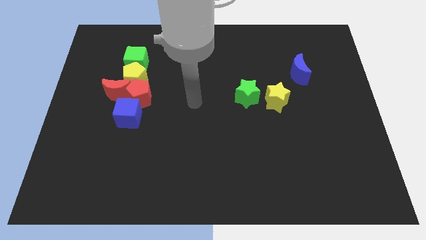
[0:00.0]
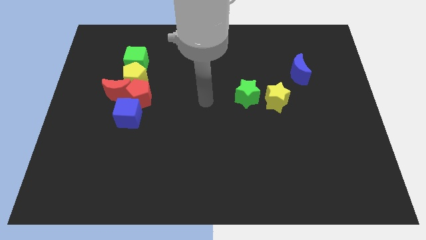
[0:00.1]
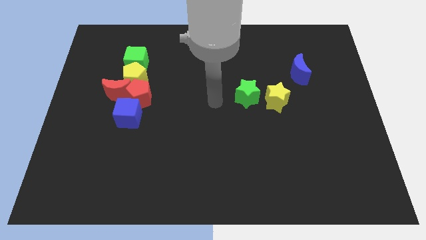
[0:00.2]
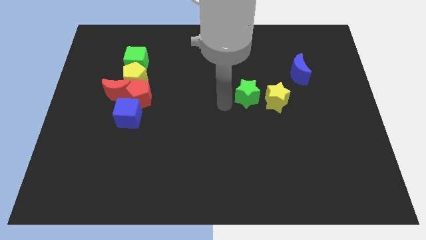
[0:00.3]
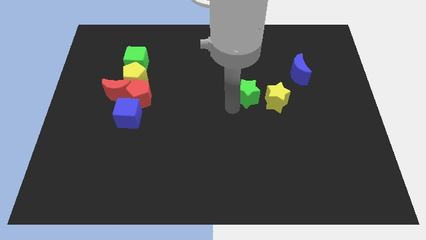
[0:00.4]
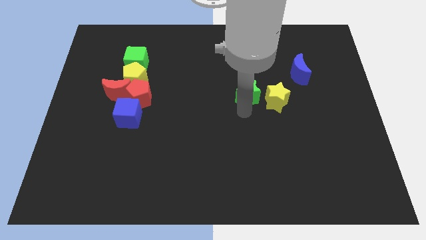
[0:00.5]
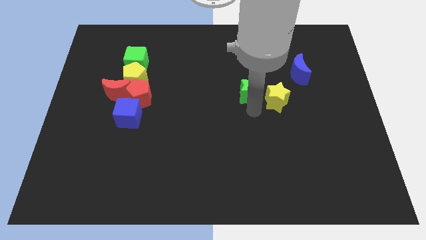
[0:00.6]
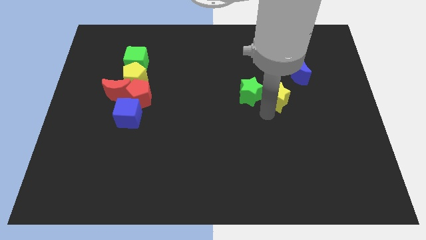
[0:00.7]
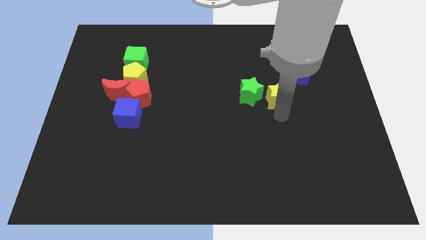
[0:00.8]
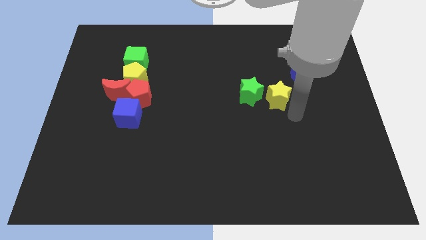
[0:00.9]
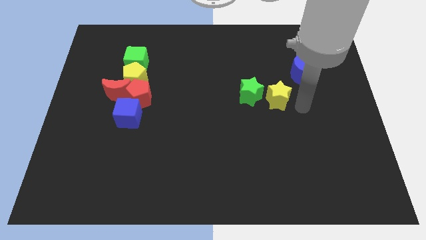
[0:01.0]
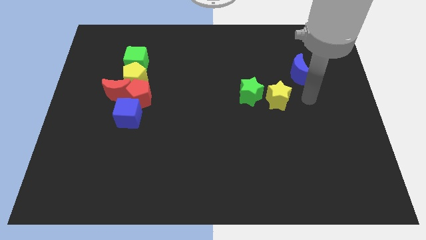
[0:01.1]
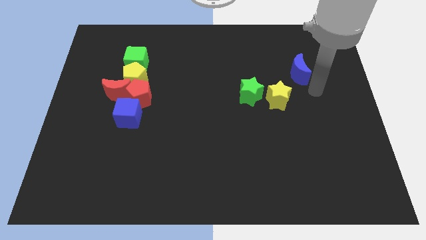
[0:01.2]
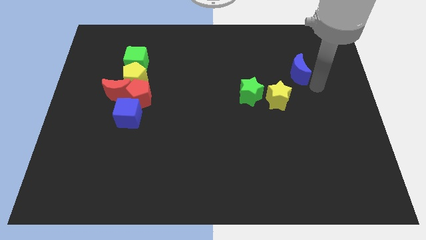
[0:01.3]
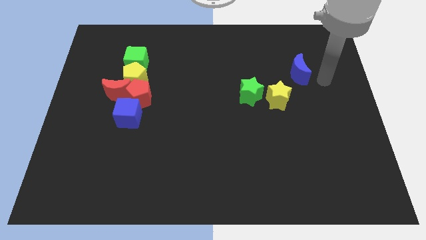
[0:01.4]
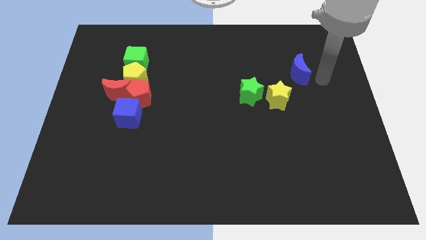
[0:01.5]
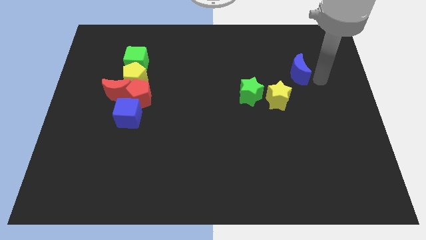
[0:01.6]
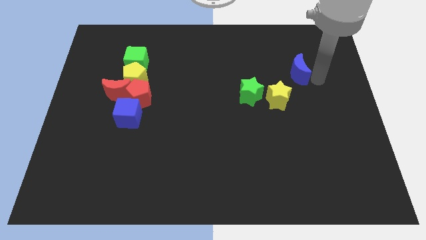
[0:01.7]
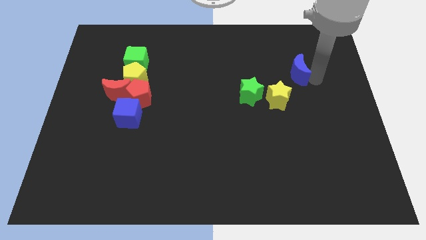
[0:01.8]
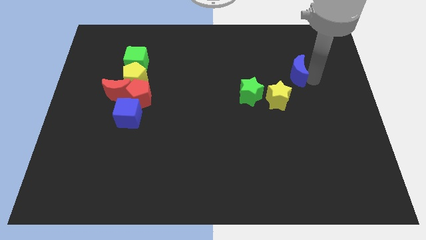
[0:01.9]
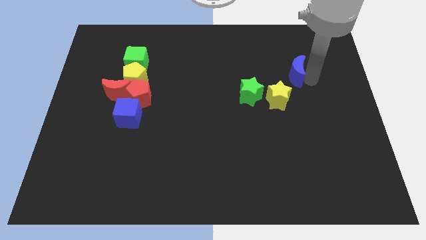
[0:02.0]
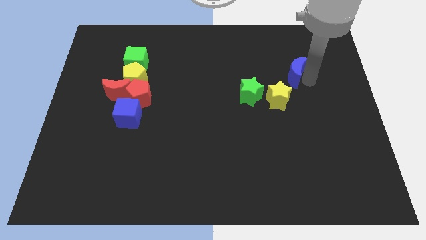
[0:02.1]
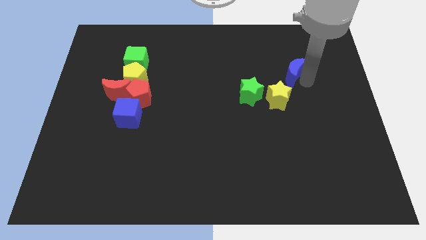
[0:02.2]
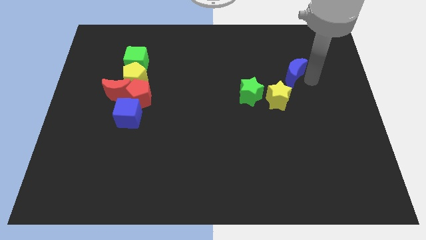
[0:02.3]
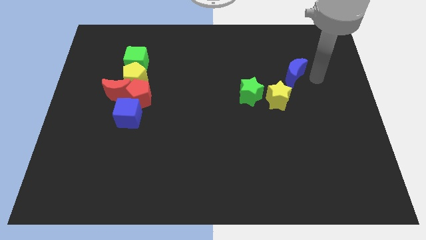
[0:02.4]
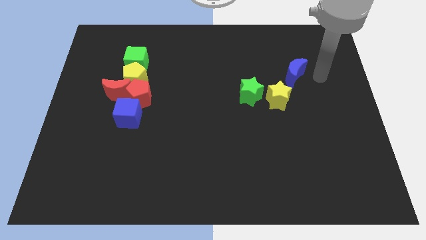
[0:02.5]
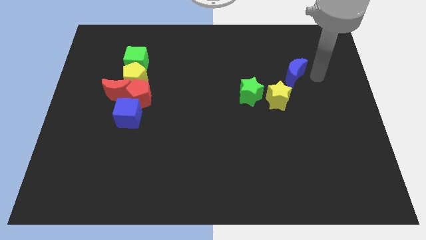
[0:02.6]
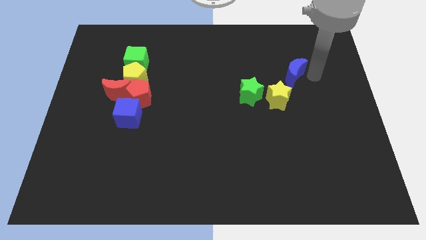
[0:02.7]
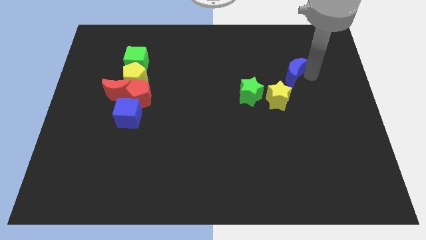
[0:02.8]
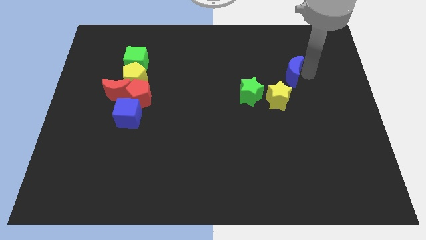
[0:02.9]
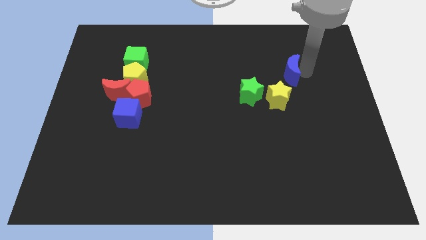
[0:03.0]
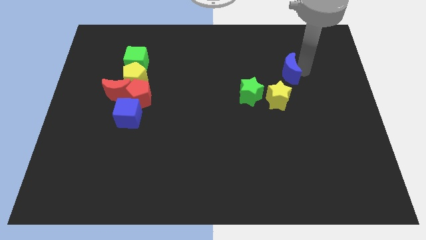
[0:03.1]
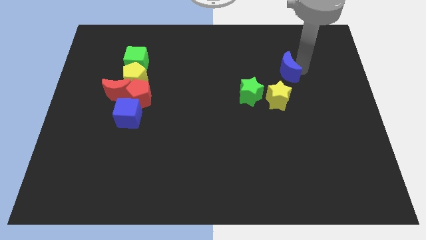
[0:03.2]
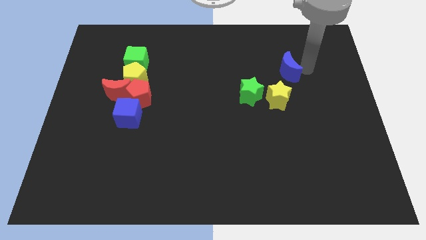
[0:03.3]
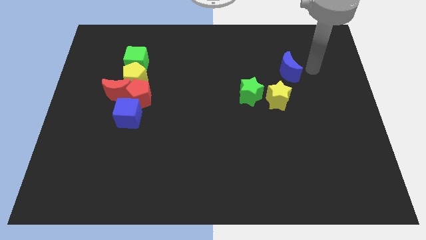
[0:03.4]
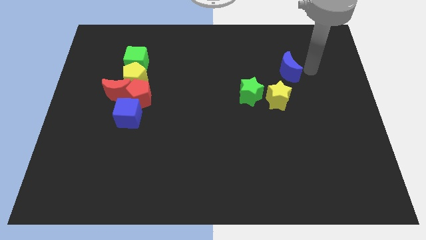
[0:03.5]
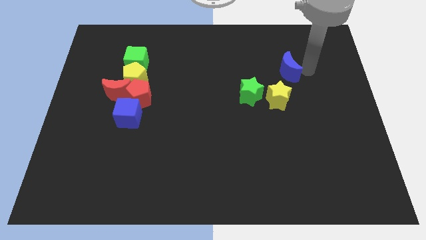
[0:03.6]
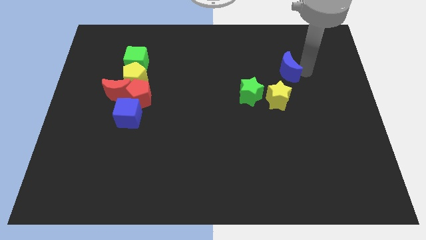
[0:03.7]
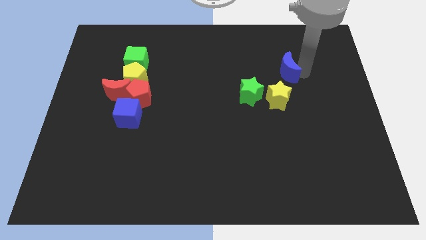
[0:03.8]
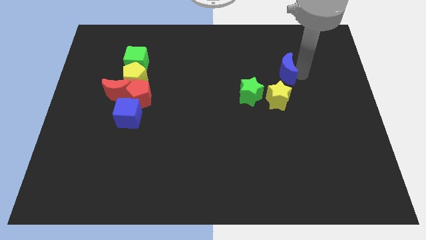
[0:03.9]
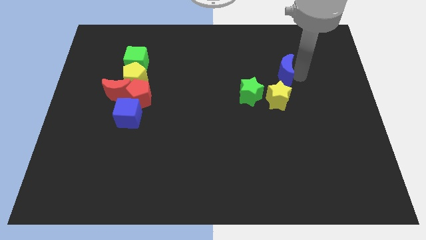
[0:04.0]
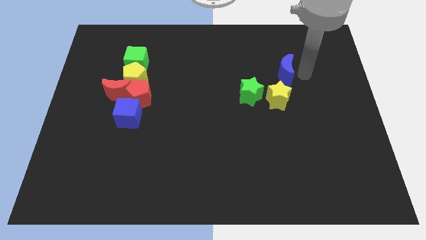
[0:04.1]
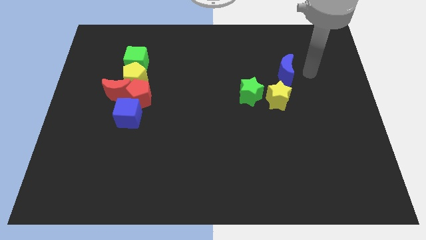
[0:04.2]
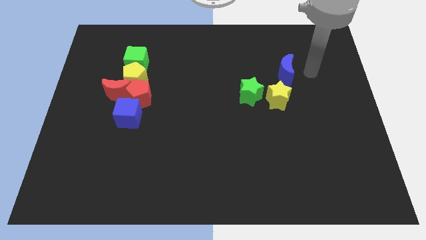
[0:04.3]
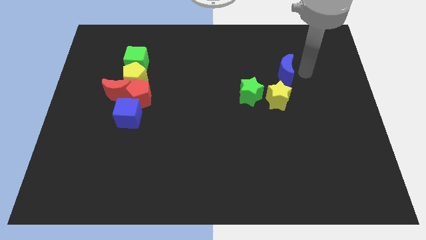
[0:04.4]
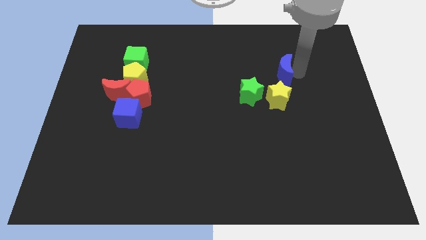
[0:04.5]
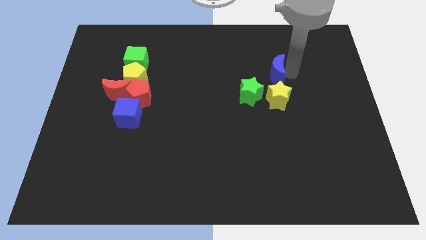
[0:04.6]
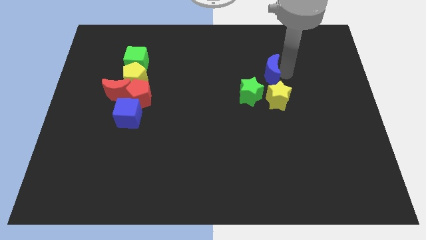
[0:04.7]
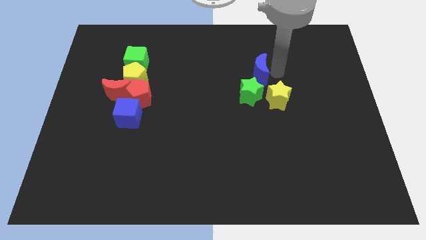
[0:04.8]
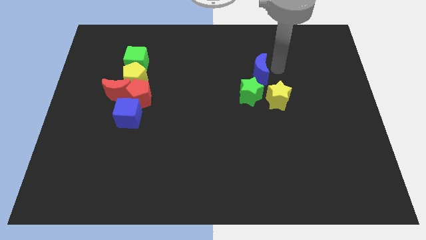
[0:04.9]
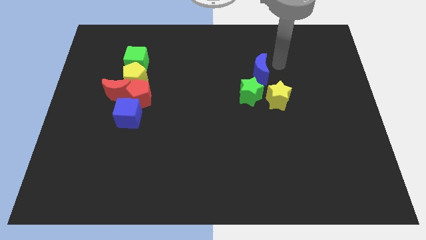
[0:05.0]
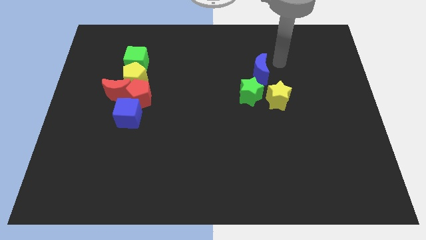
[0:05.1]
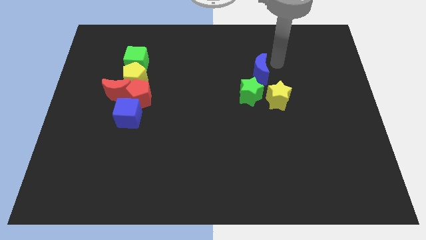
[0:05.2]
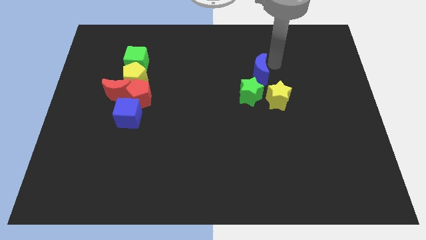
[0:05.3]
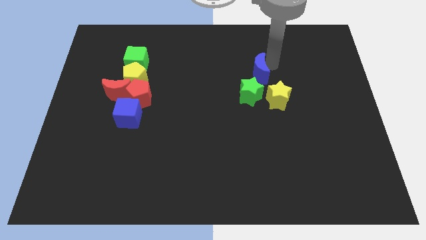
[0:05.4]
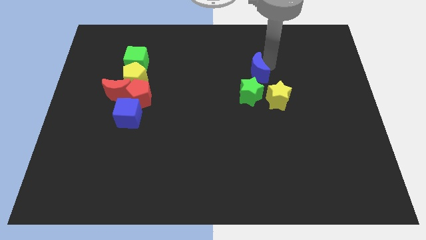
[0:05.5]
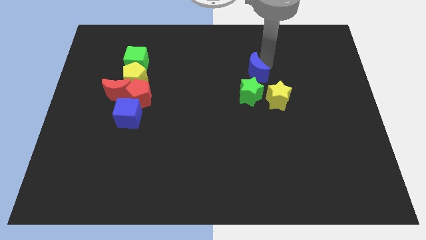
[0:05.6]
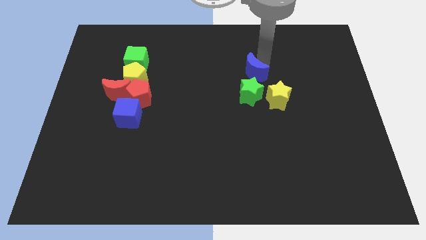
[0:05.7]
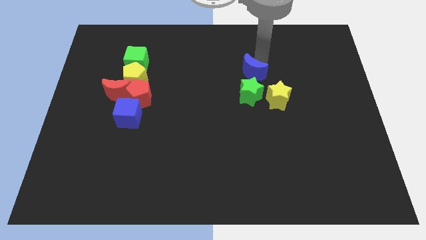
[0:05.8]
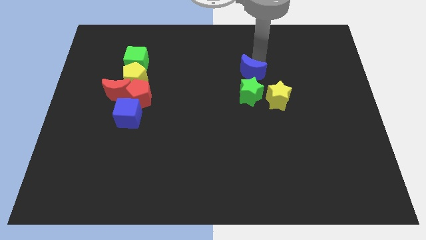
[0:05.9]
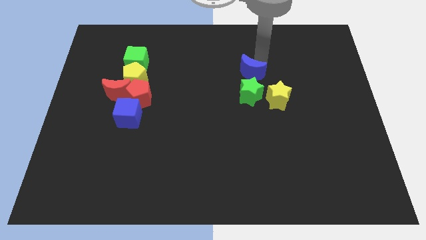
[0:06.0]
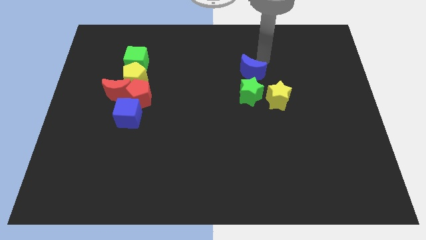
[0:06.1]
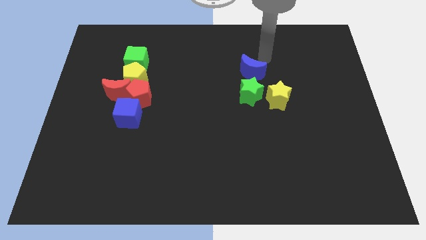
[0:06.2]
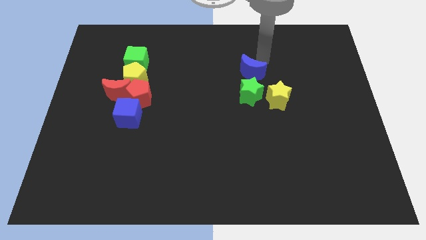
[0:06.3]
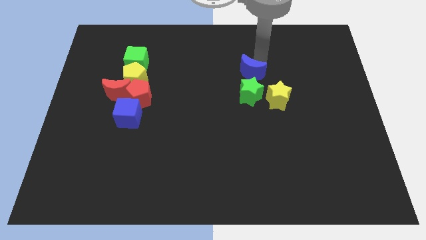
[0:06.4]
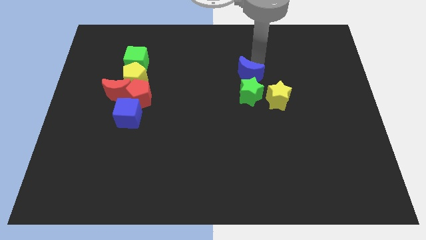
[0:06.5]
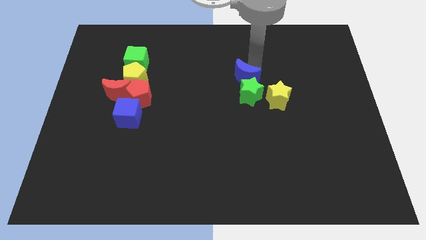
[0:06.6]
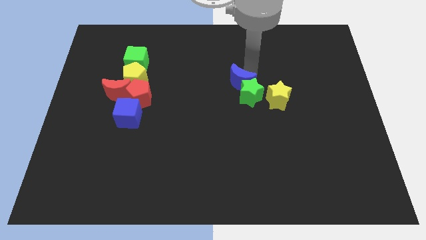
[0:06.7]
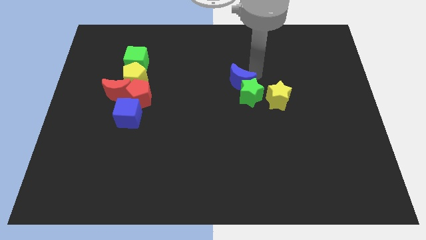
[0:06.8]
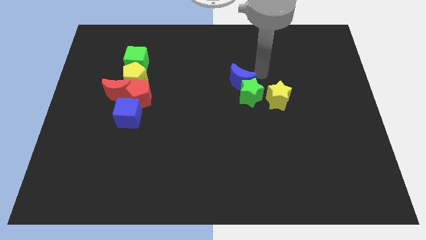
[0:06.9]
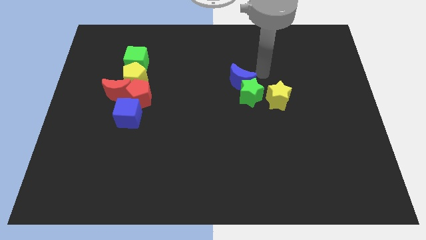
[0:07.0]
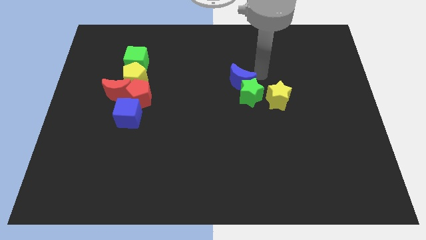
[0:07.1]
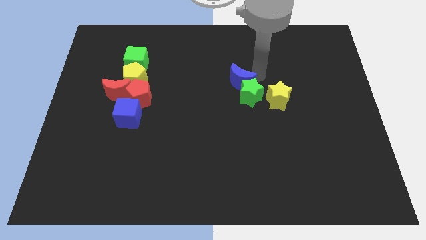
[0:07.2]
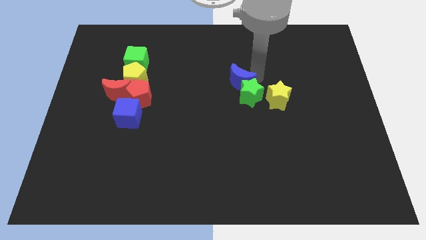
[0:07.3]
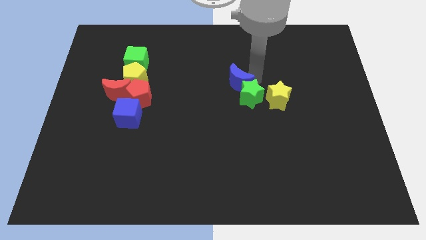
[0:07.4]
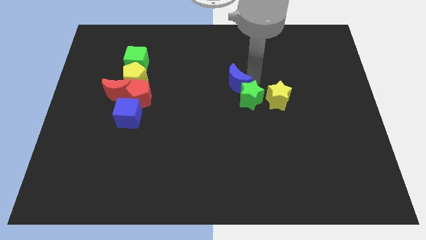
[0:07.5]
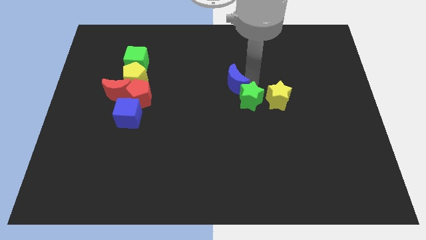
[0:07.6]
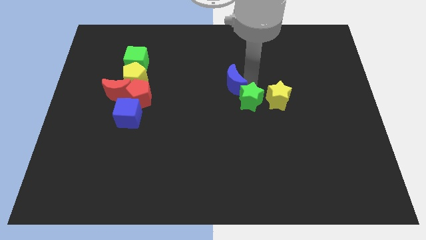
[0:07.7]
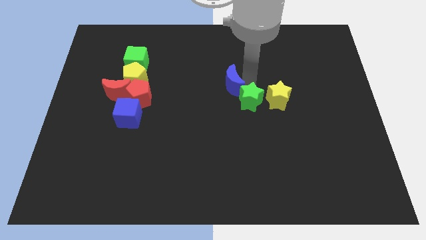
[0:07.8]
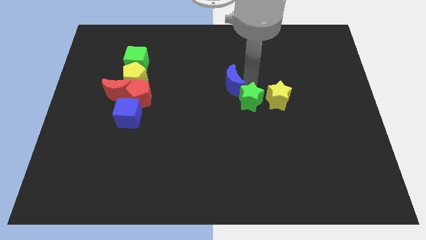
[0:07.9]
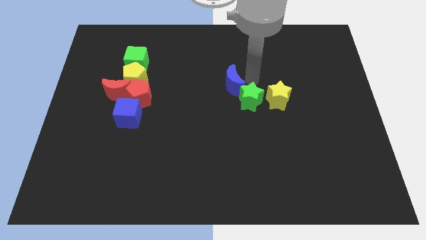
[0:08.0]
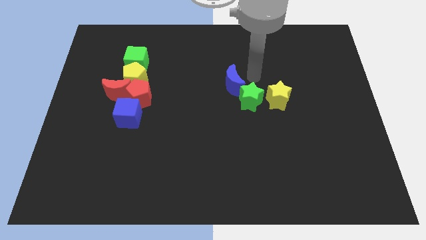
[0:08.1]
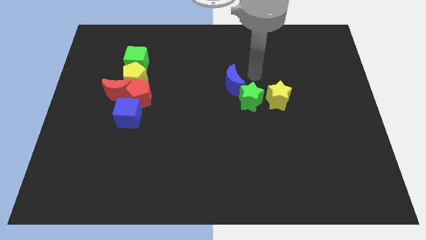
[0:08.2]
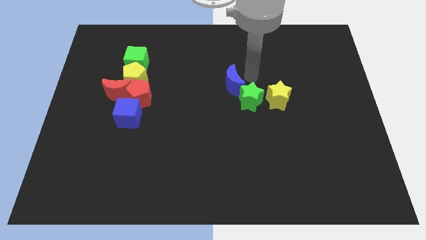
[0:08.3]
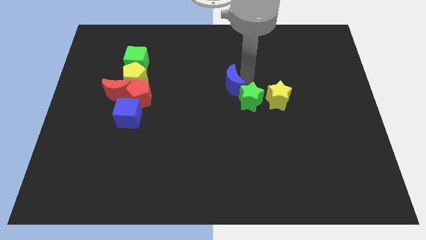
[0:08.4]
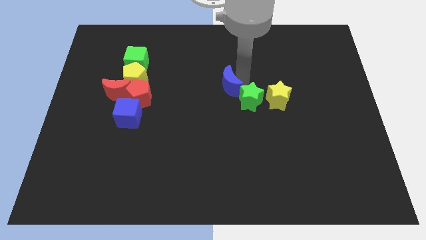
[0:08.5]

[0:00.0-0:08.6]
push the blue moon left of the green star
